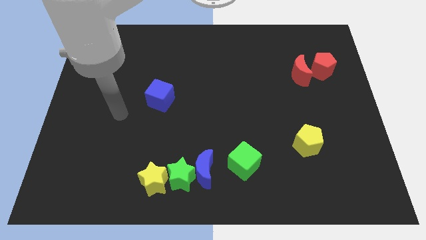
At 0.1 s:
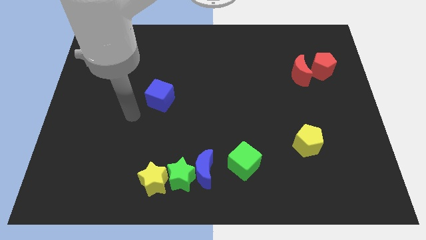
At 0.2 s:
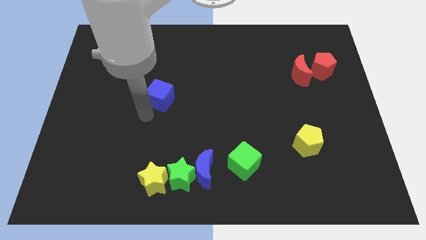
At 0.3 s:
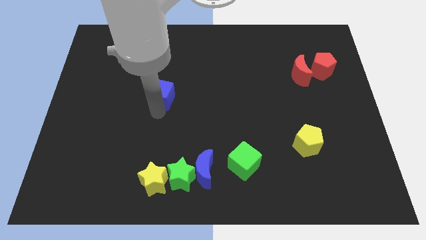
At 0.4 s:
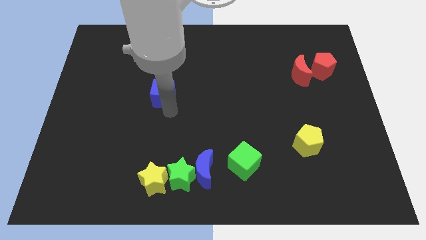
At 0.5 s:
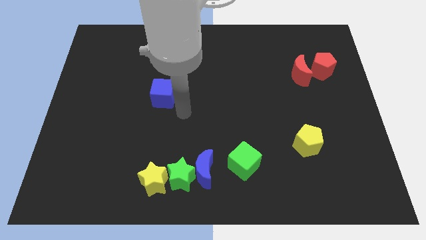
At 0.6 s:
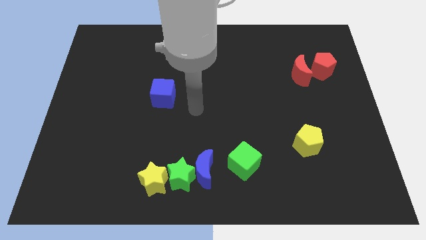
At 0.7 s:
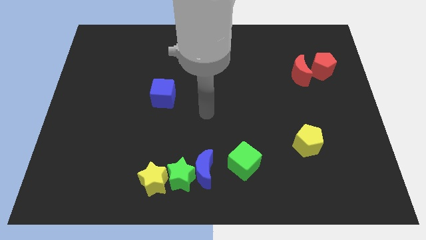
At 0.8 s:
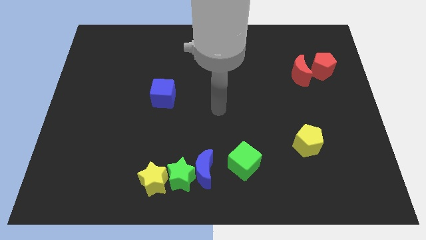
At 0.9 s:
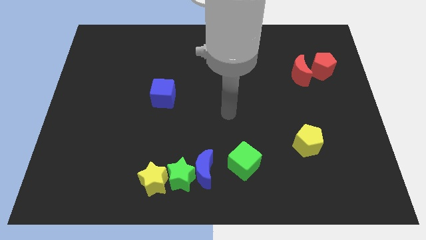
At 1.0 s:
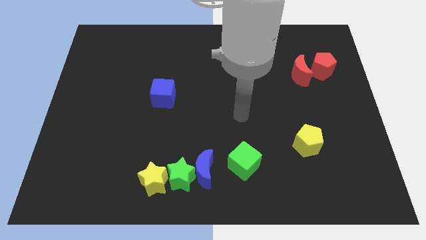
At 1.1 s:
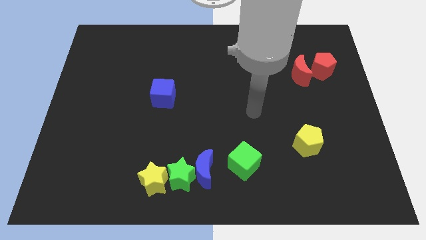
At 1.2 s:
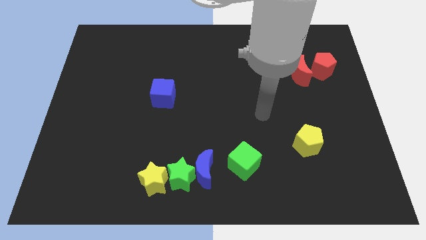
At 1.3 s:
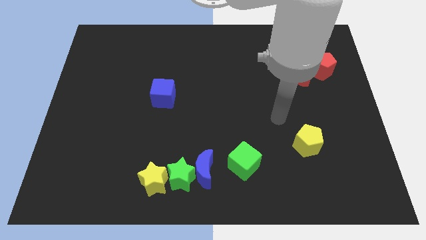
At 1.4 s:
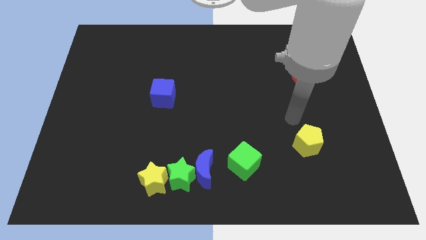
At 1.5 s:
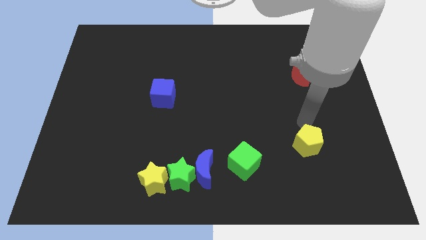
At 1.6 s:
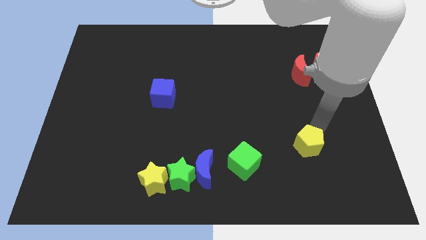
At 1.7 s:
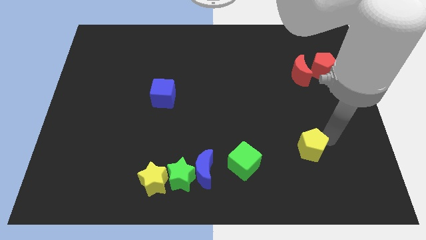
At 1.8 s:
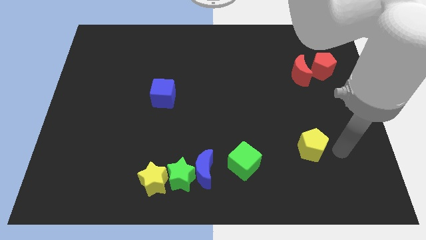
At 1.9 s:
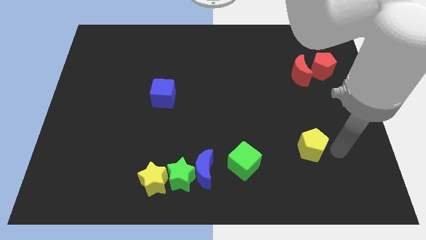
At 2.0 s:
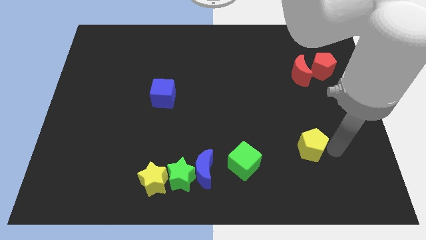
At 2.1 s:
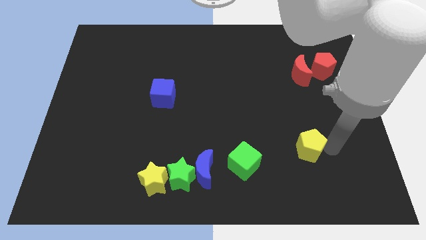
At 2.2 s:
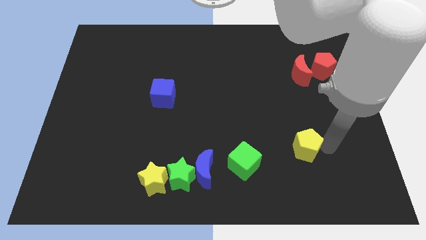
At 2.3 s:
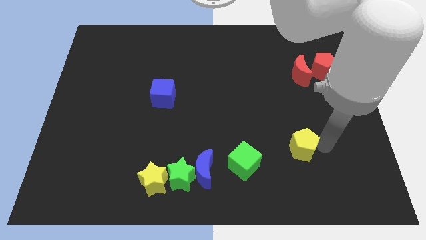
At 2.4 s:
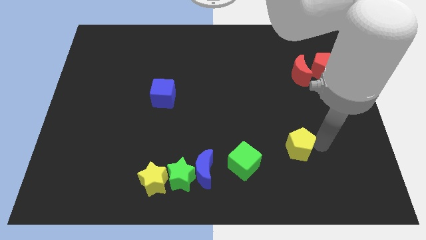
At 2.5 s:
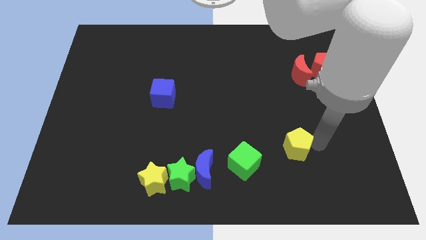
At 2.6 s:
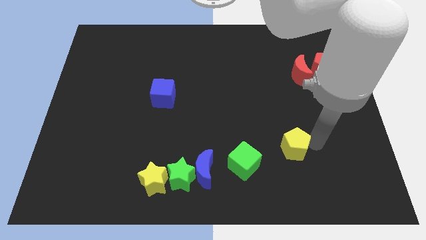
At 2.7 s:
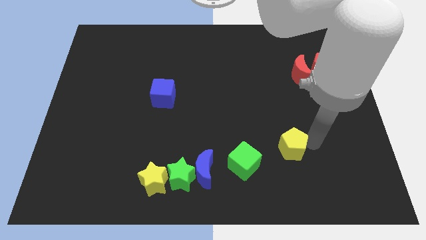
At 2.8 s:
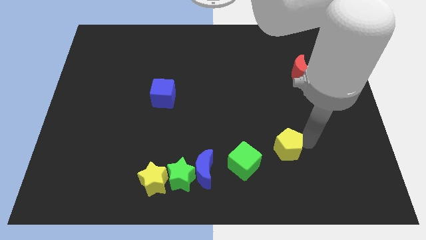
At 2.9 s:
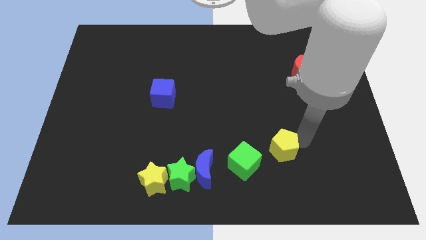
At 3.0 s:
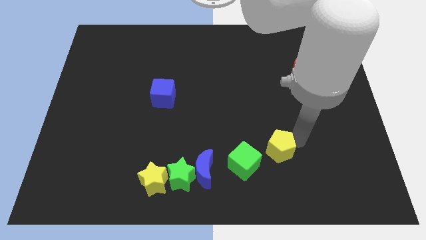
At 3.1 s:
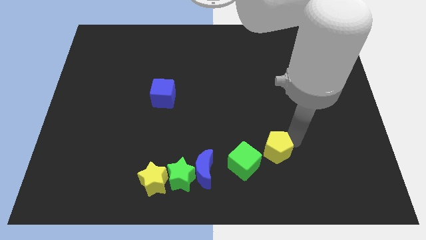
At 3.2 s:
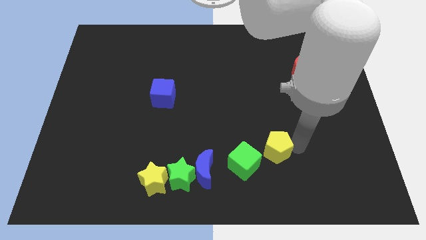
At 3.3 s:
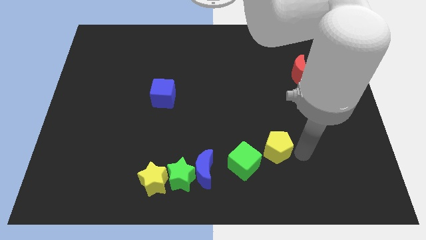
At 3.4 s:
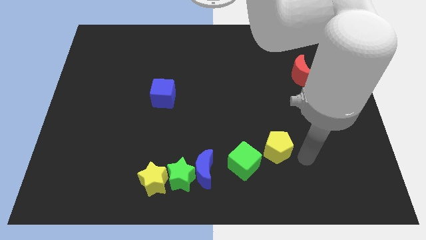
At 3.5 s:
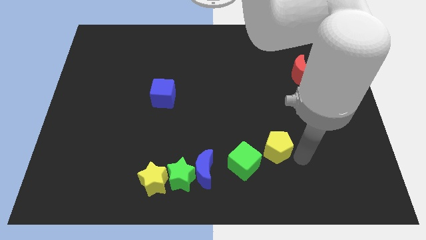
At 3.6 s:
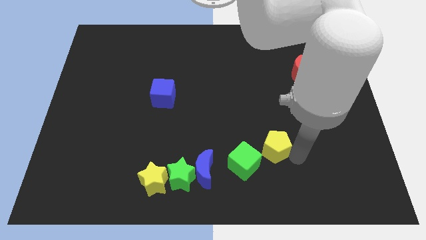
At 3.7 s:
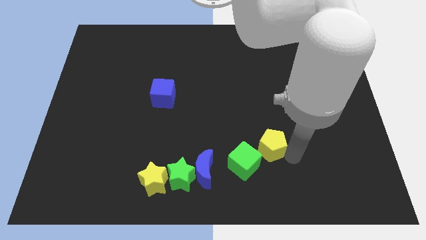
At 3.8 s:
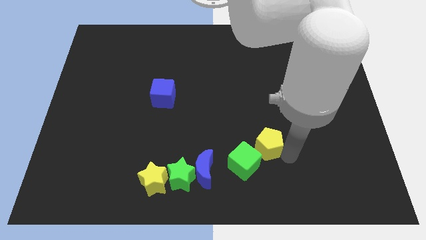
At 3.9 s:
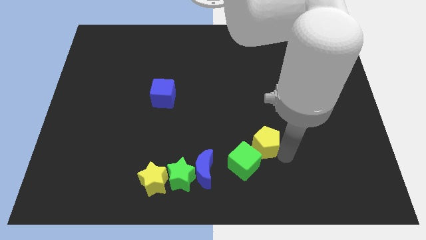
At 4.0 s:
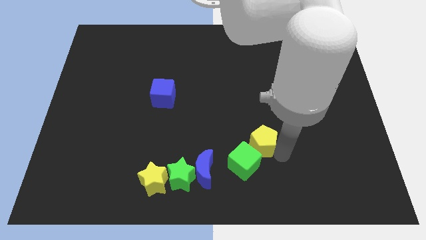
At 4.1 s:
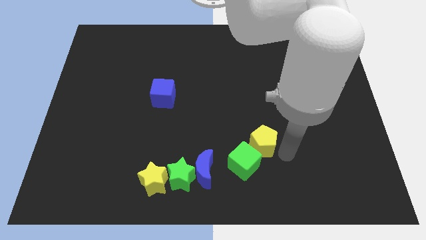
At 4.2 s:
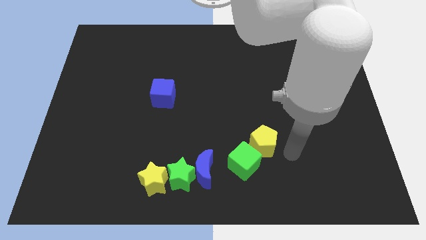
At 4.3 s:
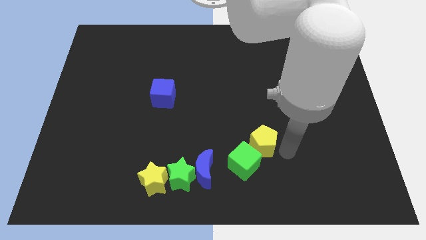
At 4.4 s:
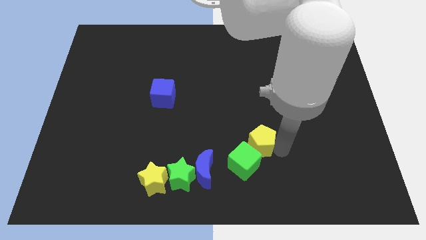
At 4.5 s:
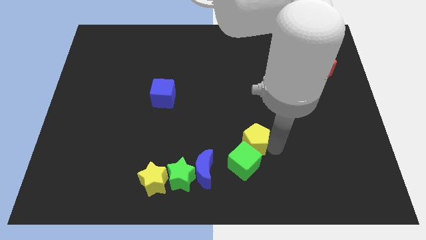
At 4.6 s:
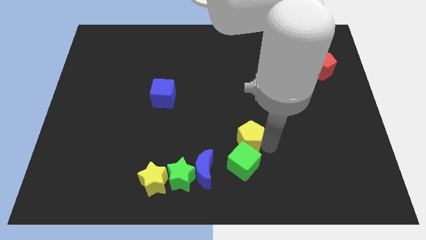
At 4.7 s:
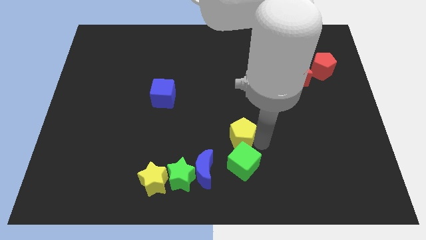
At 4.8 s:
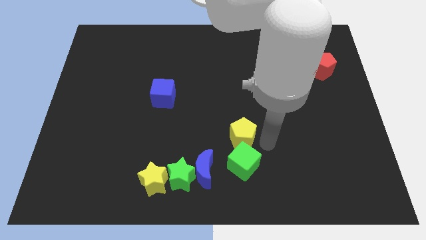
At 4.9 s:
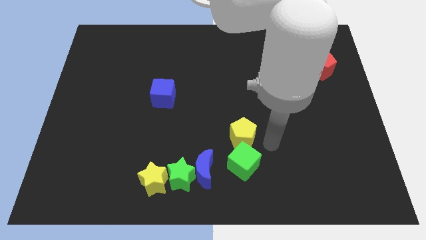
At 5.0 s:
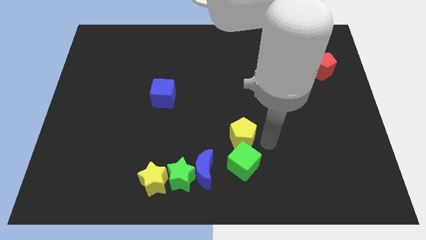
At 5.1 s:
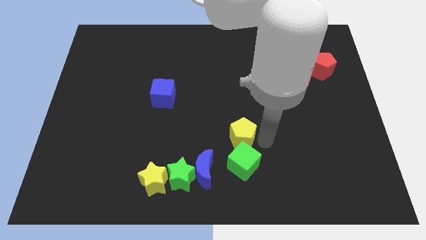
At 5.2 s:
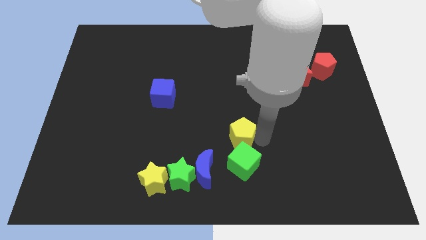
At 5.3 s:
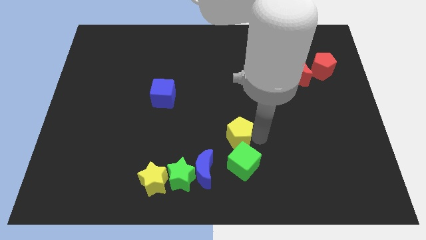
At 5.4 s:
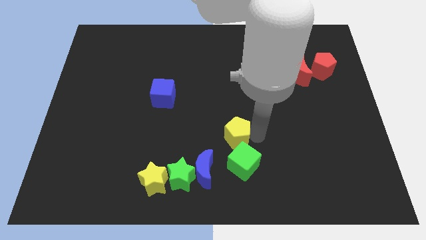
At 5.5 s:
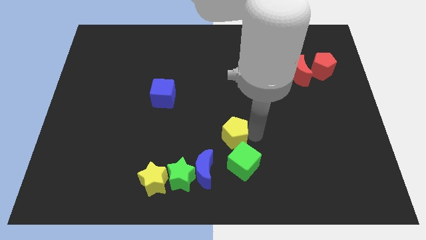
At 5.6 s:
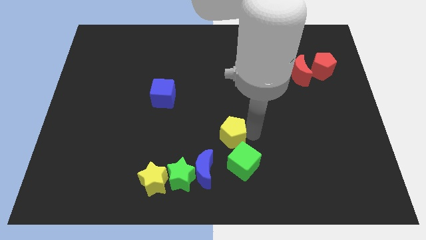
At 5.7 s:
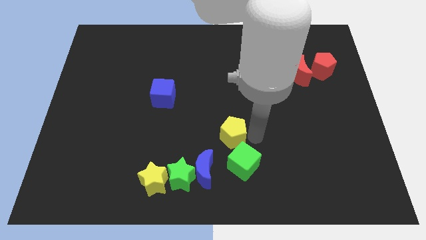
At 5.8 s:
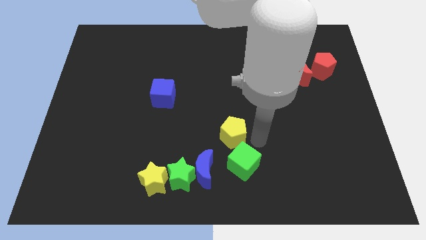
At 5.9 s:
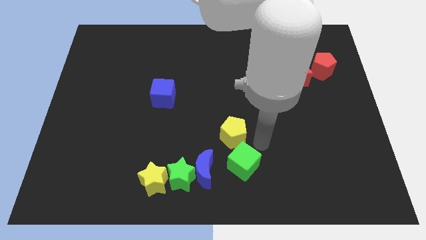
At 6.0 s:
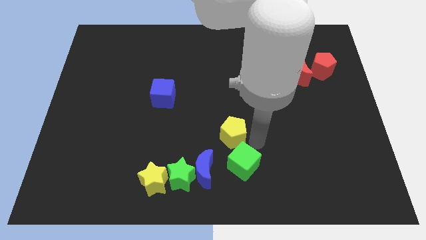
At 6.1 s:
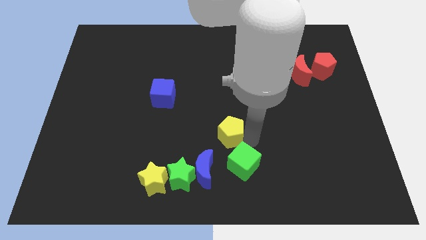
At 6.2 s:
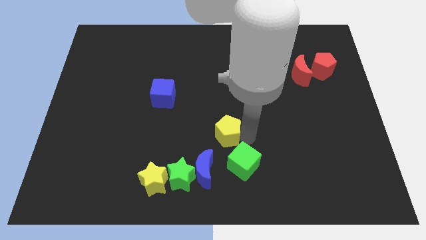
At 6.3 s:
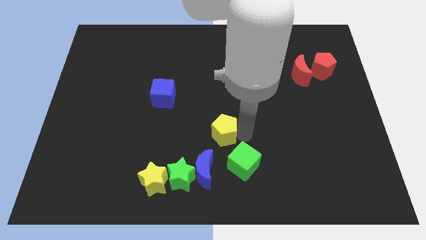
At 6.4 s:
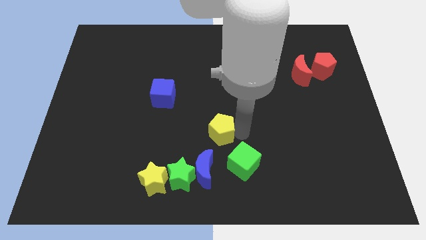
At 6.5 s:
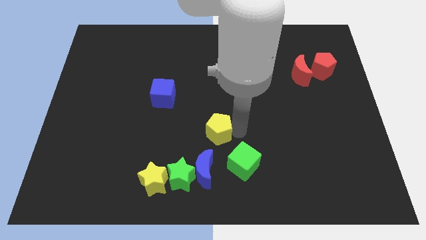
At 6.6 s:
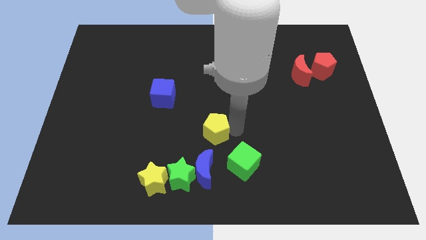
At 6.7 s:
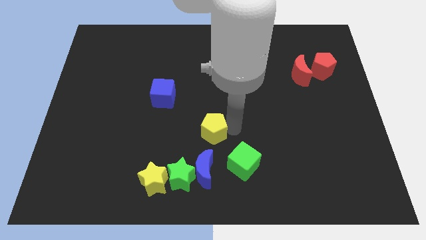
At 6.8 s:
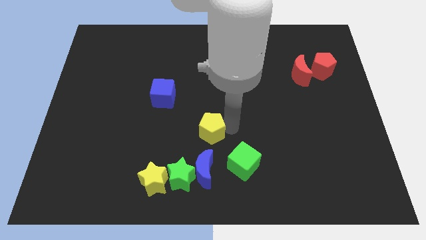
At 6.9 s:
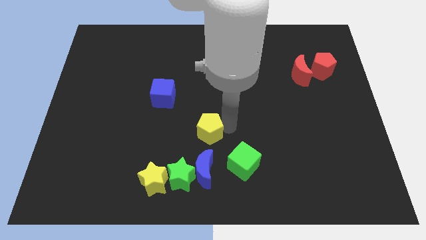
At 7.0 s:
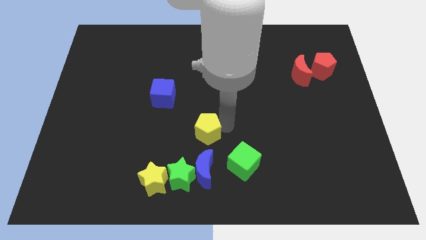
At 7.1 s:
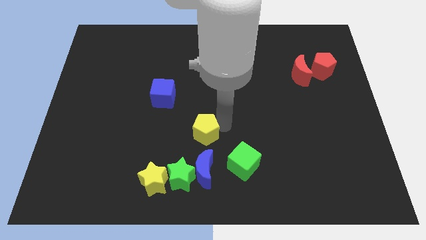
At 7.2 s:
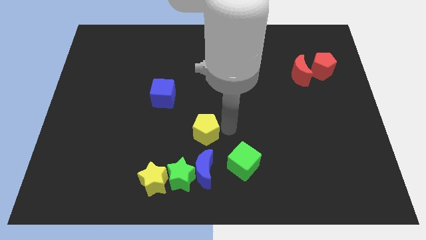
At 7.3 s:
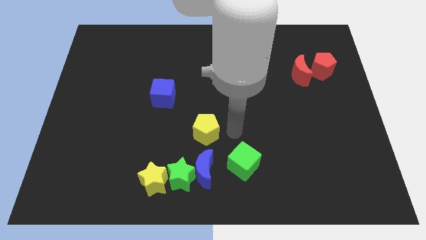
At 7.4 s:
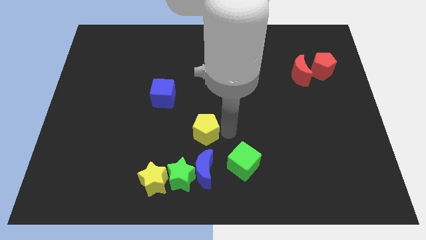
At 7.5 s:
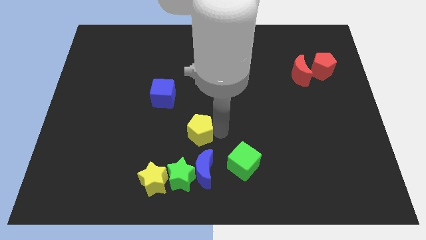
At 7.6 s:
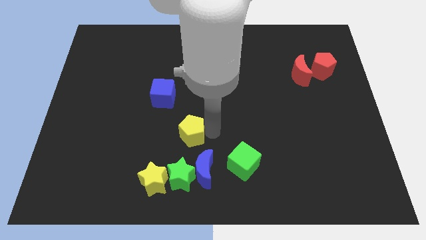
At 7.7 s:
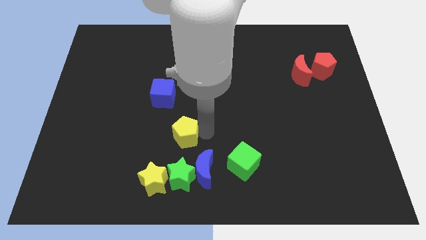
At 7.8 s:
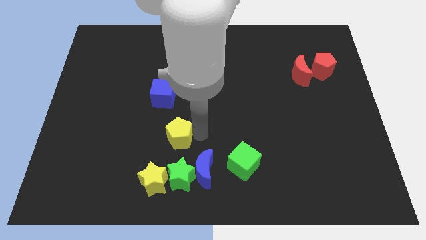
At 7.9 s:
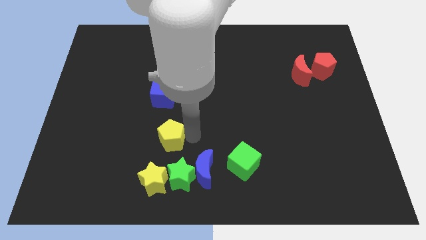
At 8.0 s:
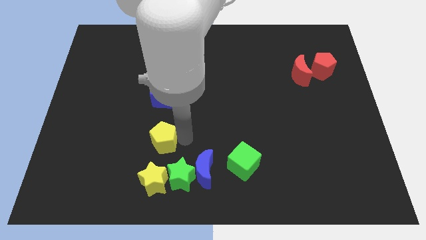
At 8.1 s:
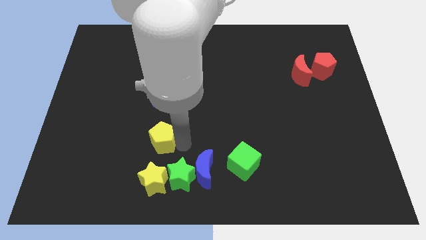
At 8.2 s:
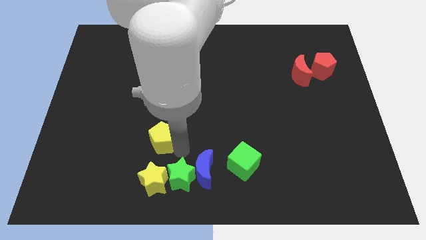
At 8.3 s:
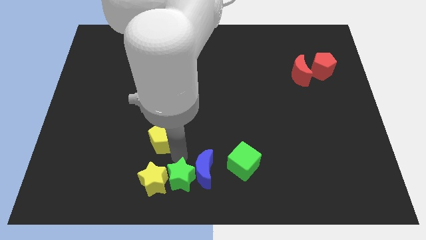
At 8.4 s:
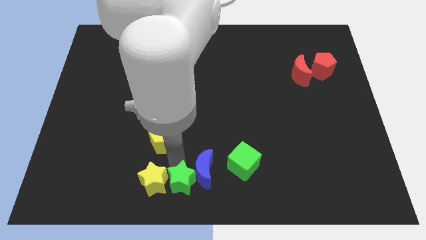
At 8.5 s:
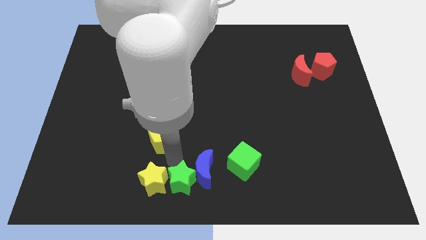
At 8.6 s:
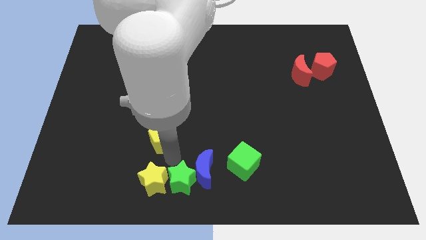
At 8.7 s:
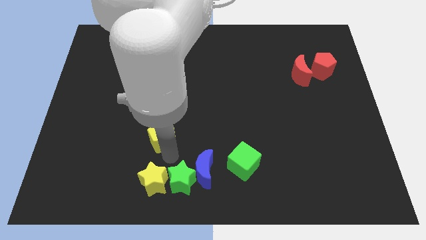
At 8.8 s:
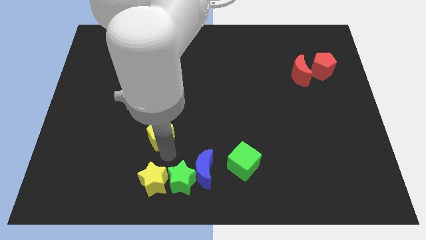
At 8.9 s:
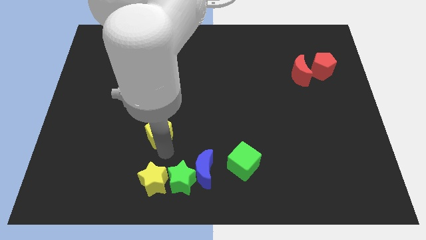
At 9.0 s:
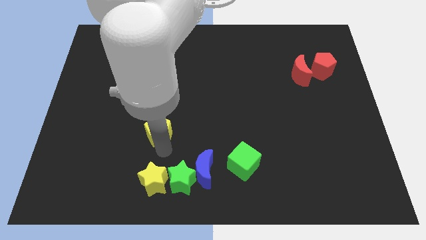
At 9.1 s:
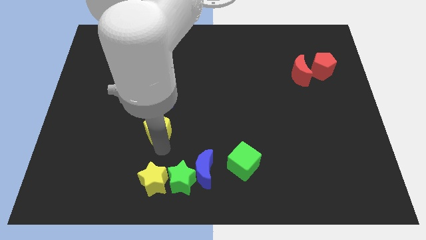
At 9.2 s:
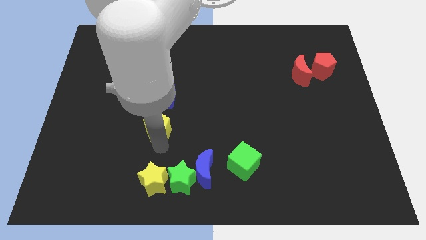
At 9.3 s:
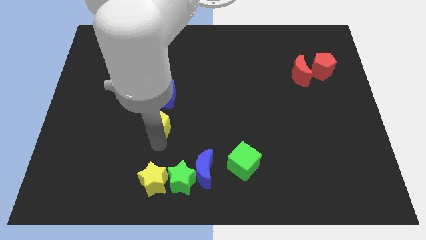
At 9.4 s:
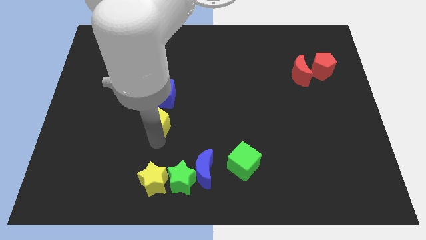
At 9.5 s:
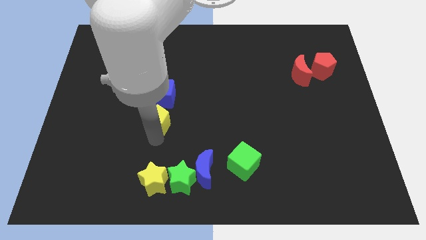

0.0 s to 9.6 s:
push the yellow pentagon to the bottom left of the blue cube
